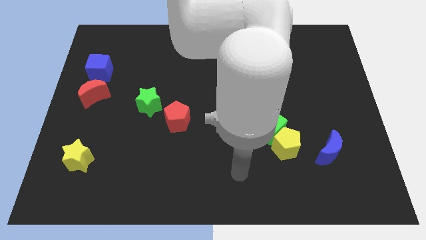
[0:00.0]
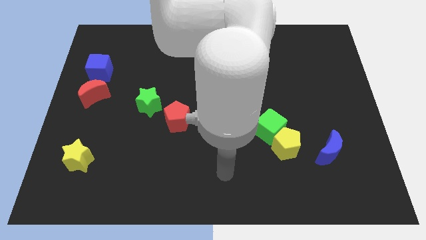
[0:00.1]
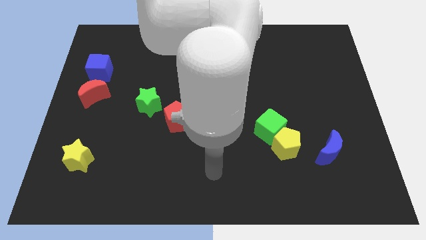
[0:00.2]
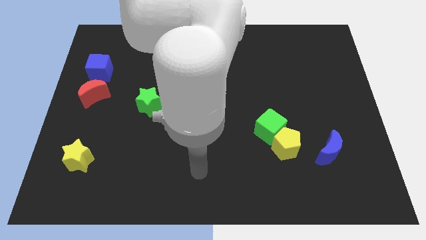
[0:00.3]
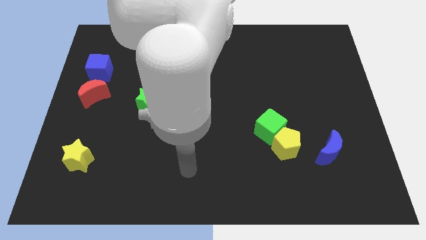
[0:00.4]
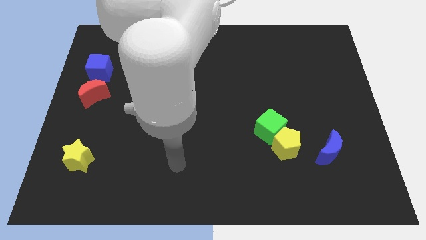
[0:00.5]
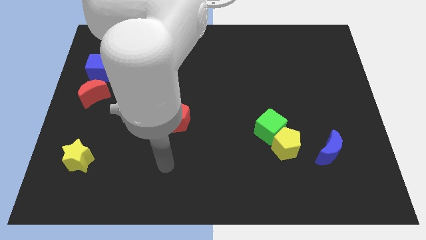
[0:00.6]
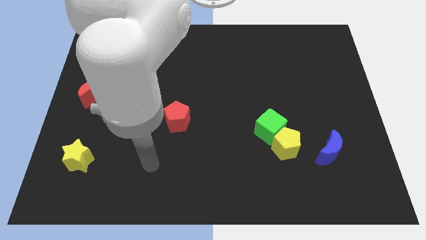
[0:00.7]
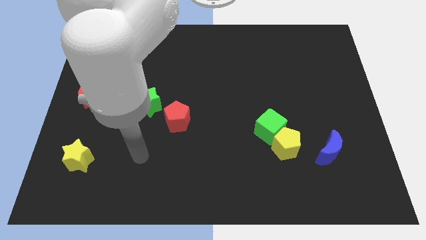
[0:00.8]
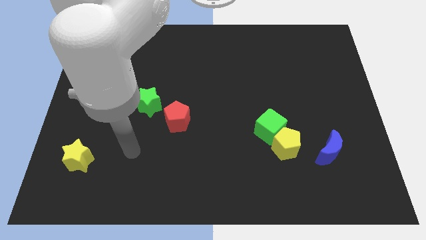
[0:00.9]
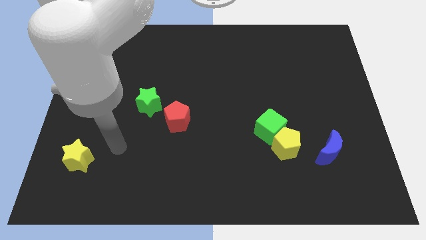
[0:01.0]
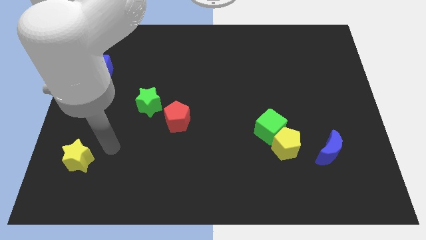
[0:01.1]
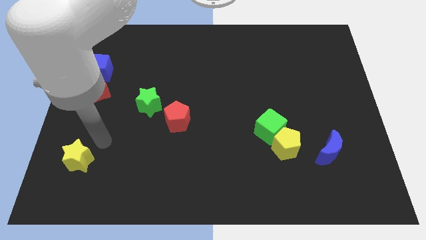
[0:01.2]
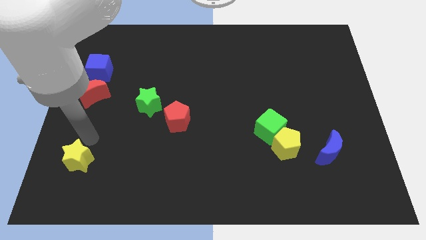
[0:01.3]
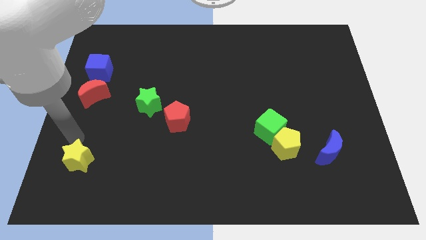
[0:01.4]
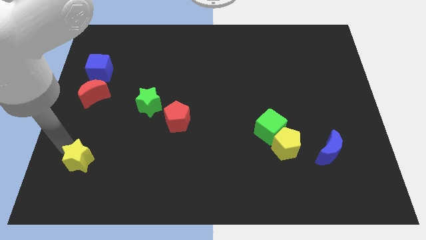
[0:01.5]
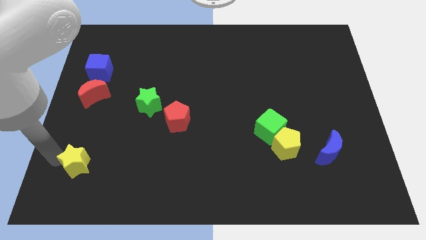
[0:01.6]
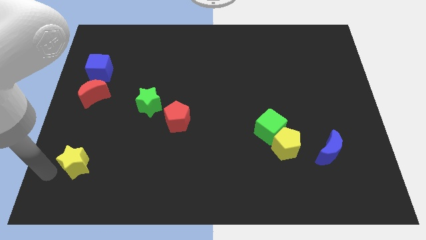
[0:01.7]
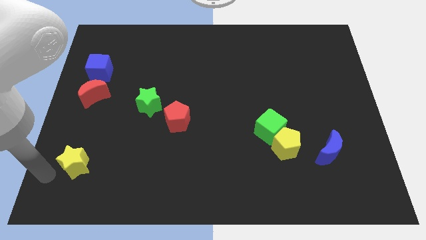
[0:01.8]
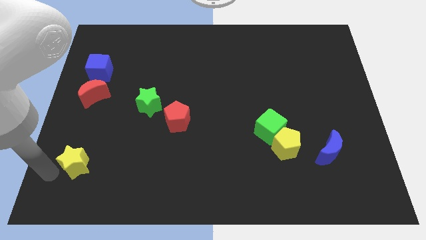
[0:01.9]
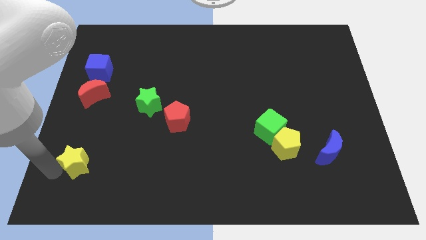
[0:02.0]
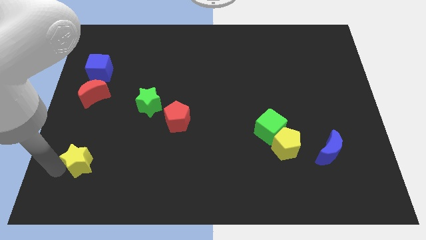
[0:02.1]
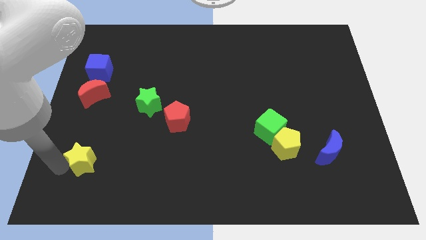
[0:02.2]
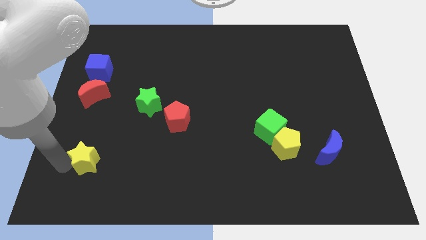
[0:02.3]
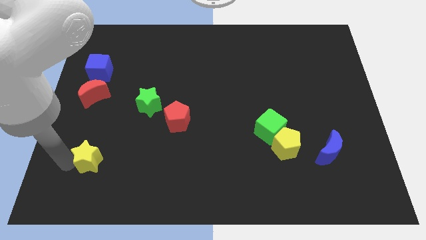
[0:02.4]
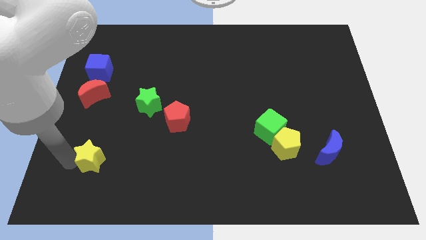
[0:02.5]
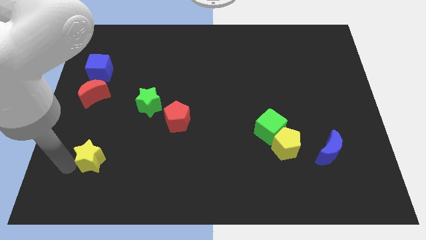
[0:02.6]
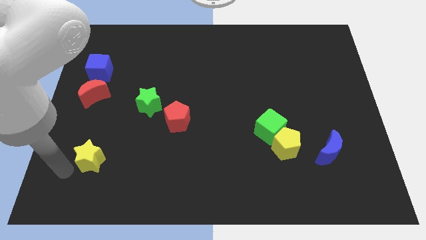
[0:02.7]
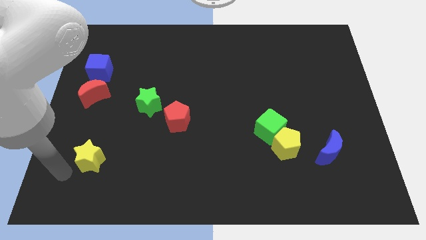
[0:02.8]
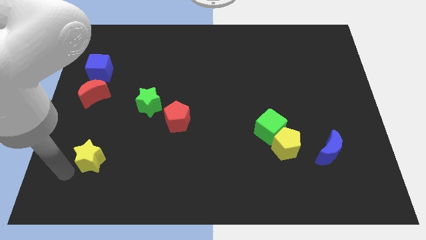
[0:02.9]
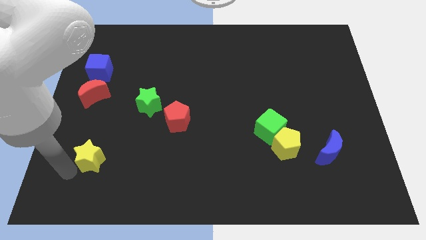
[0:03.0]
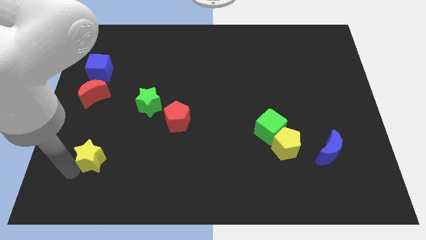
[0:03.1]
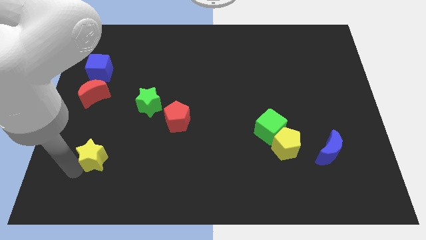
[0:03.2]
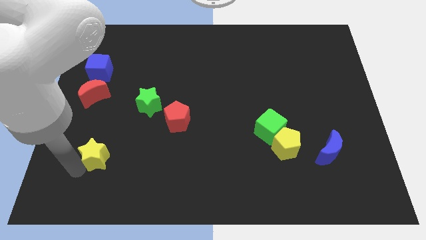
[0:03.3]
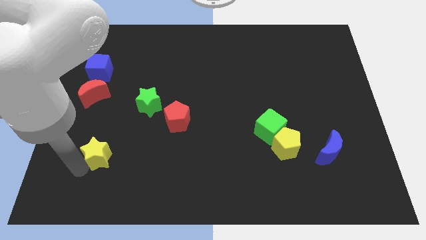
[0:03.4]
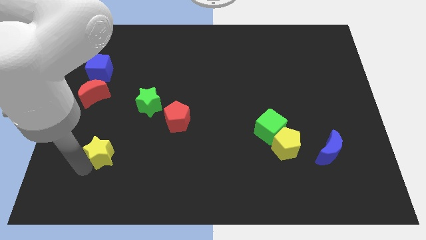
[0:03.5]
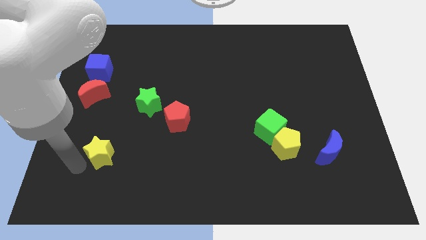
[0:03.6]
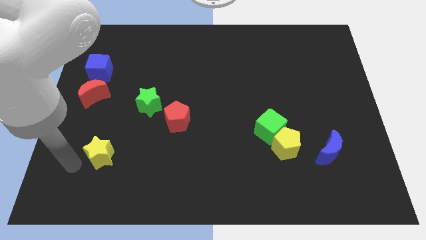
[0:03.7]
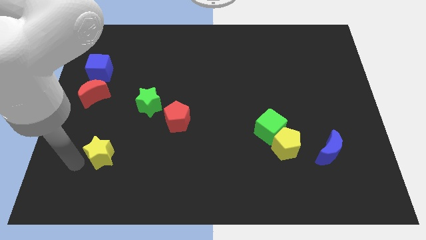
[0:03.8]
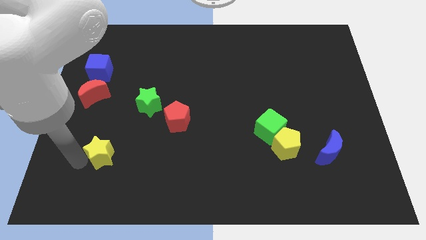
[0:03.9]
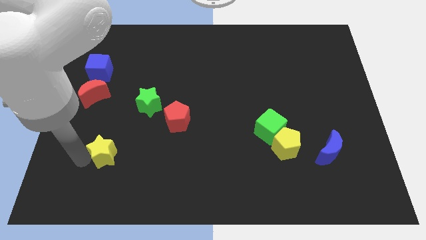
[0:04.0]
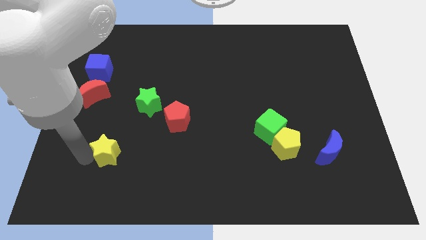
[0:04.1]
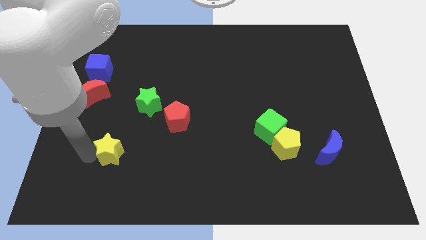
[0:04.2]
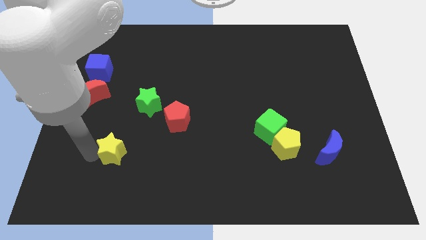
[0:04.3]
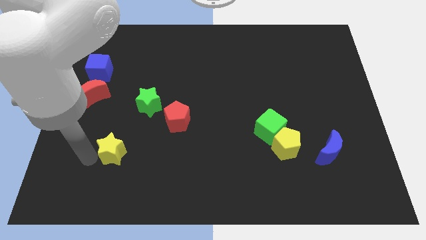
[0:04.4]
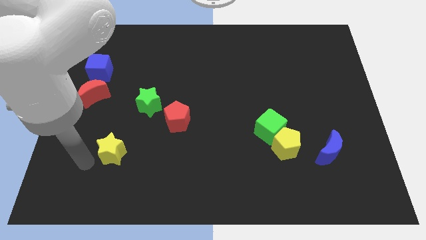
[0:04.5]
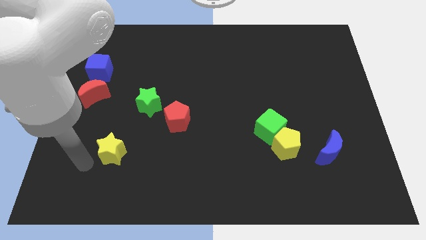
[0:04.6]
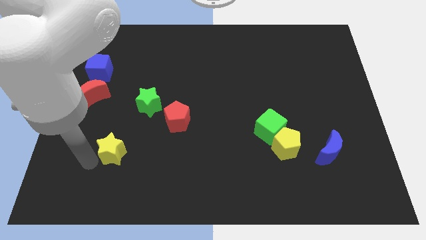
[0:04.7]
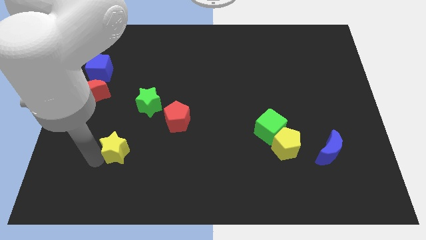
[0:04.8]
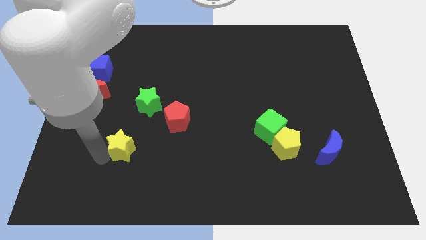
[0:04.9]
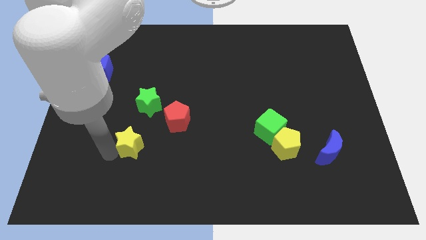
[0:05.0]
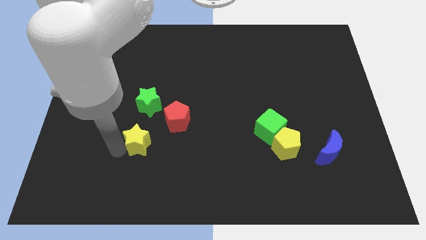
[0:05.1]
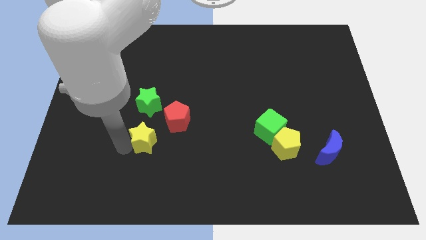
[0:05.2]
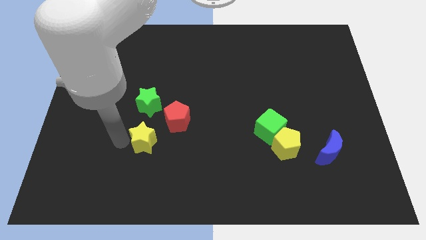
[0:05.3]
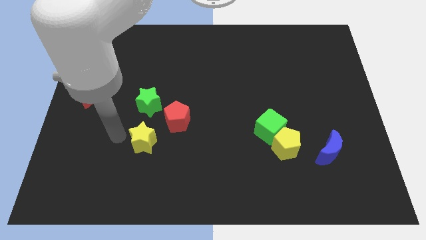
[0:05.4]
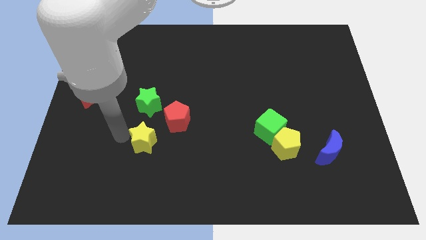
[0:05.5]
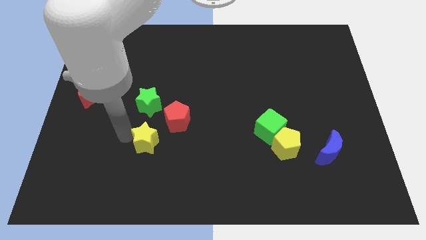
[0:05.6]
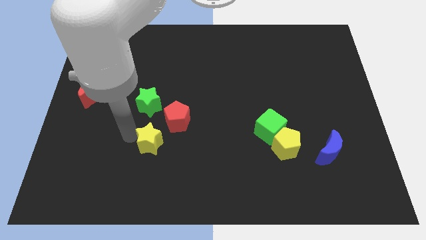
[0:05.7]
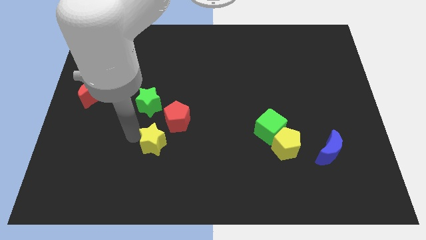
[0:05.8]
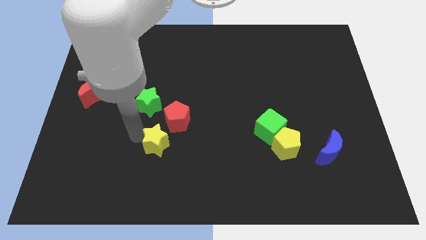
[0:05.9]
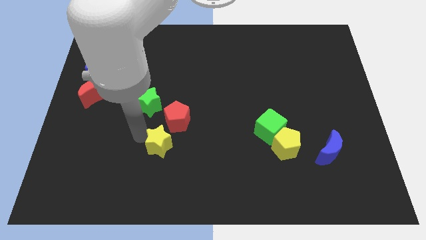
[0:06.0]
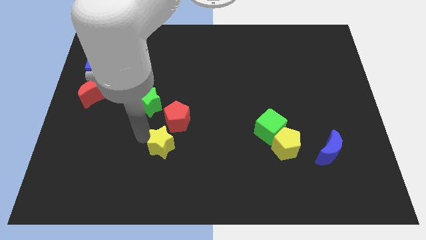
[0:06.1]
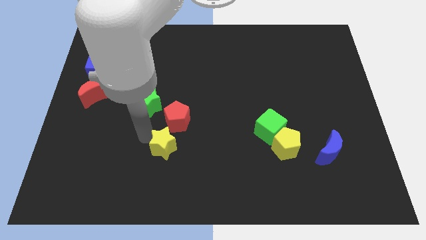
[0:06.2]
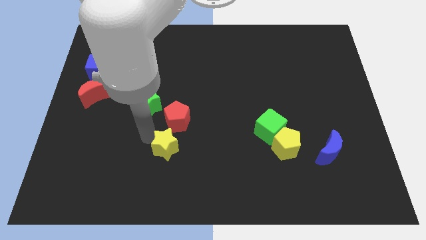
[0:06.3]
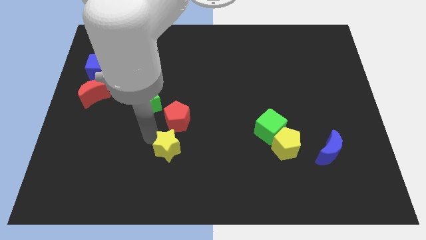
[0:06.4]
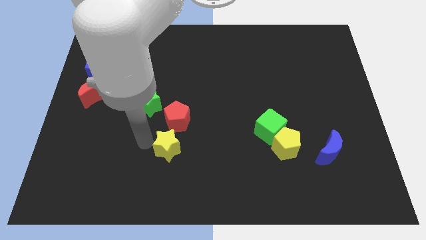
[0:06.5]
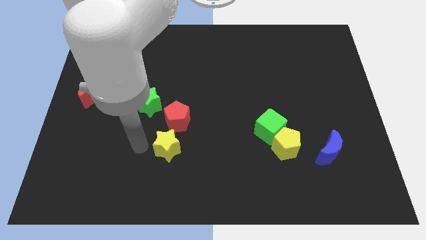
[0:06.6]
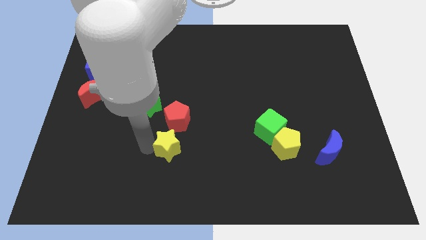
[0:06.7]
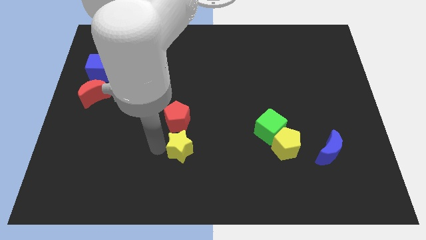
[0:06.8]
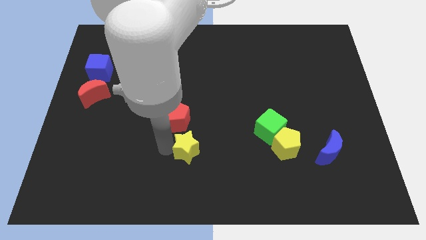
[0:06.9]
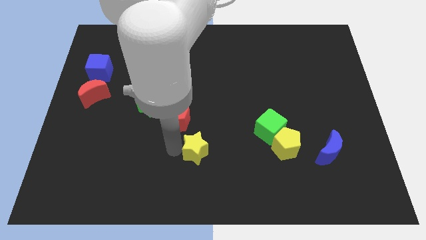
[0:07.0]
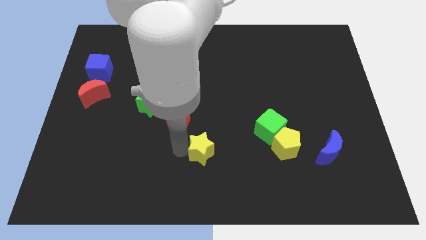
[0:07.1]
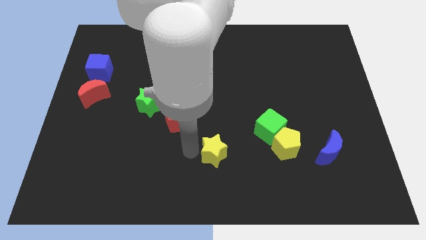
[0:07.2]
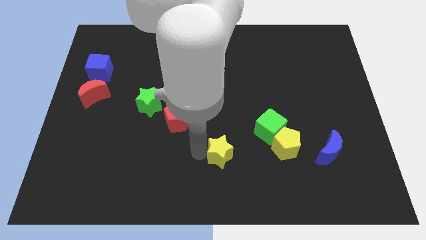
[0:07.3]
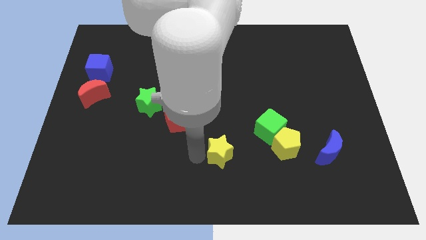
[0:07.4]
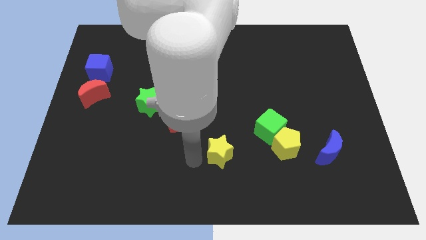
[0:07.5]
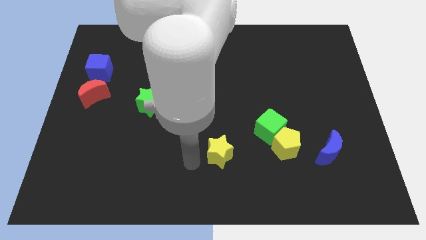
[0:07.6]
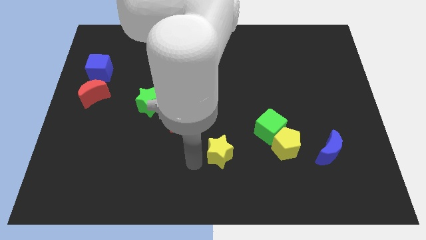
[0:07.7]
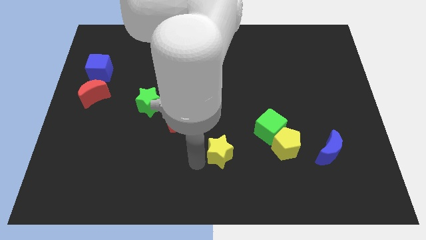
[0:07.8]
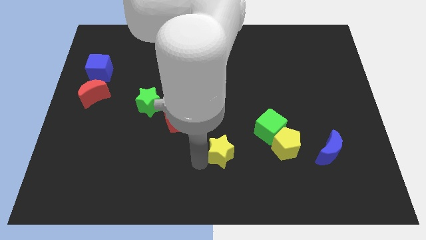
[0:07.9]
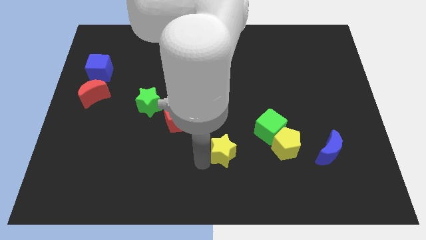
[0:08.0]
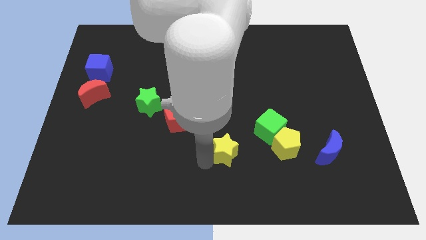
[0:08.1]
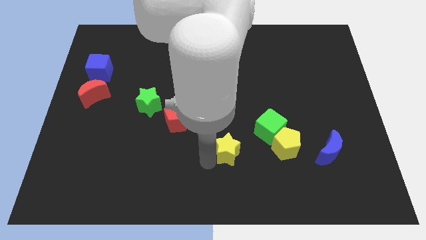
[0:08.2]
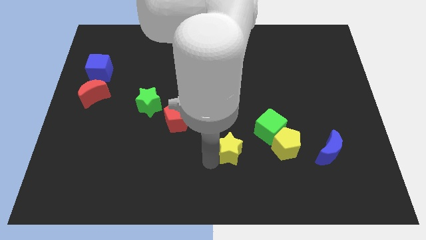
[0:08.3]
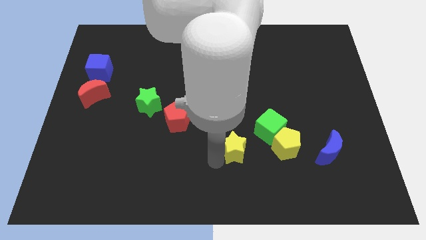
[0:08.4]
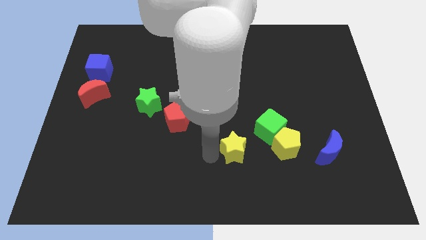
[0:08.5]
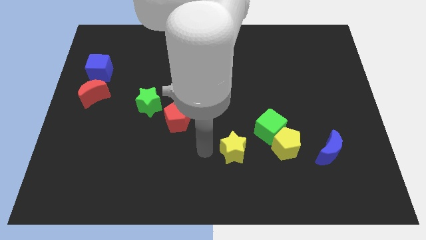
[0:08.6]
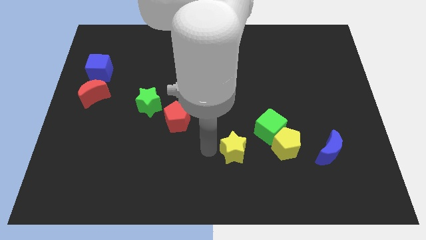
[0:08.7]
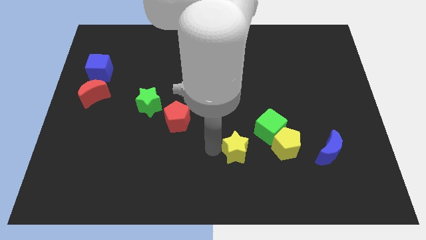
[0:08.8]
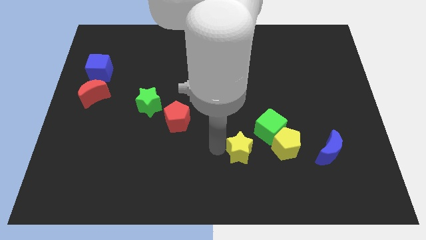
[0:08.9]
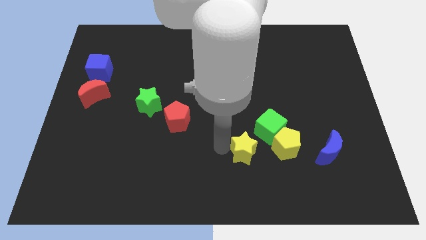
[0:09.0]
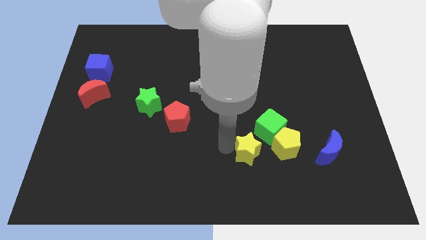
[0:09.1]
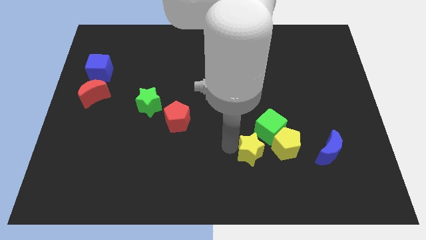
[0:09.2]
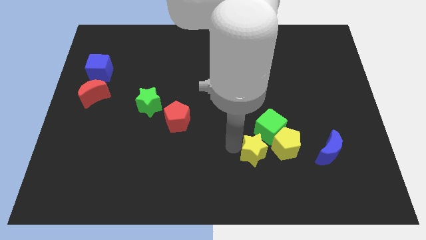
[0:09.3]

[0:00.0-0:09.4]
move the yellow star left of the blue moon
